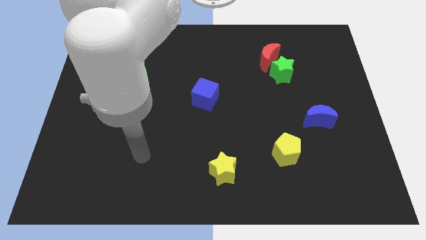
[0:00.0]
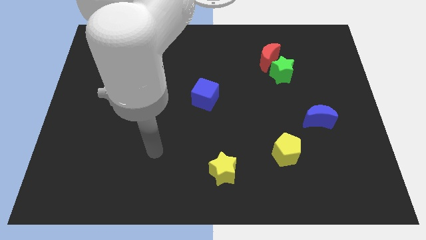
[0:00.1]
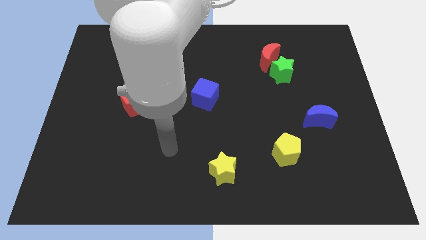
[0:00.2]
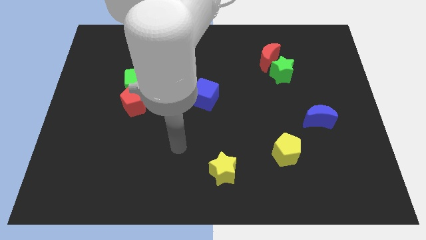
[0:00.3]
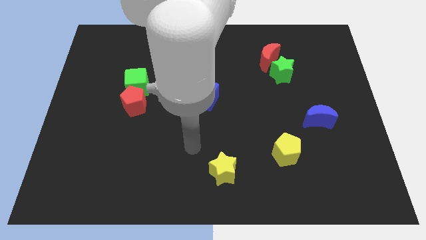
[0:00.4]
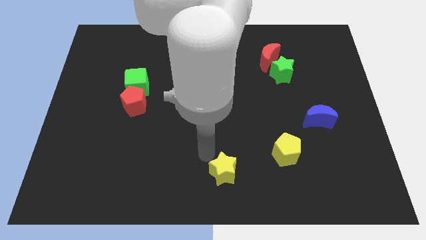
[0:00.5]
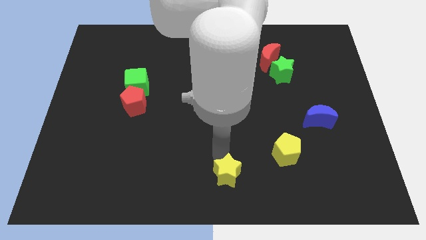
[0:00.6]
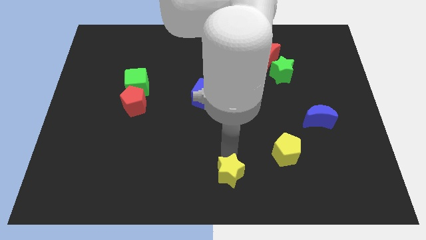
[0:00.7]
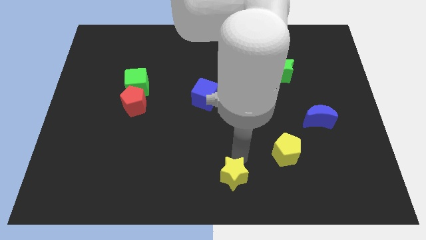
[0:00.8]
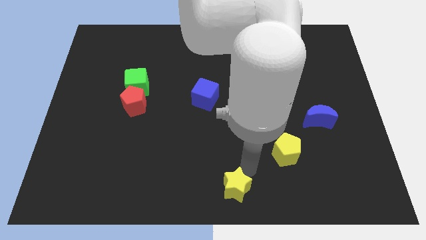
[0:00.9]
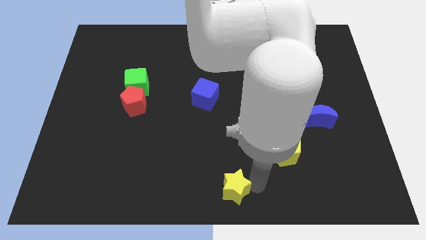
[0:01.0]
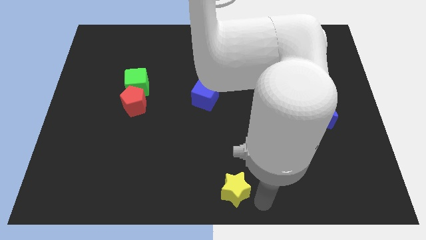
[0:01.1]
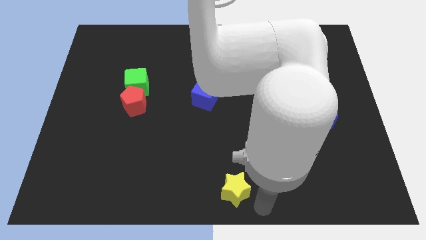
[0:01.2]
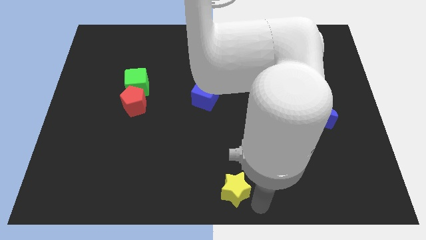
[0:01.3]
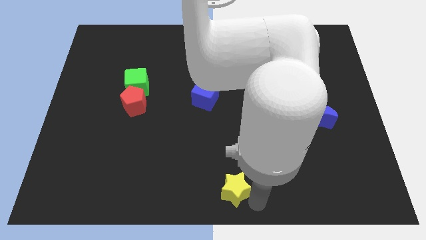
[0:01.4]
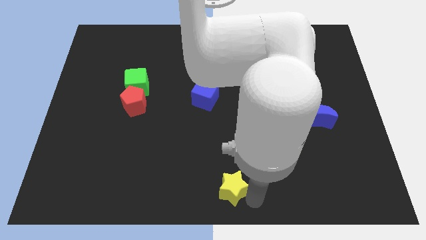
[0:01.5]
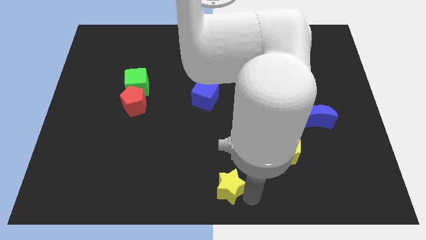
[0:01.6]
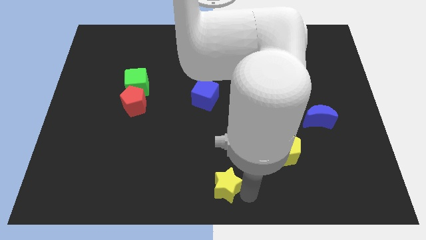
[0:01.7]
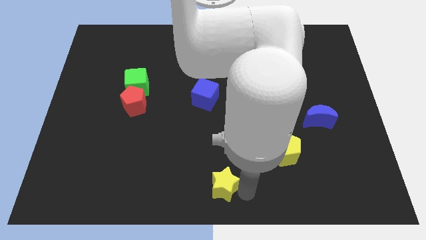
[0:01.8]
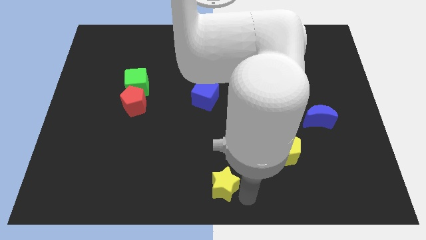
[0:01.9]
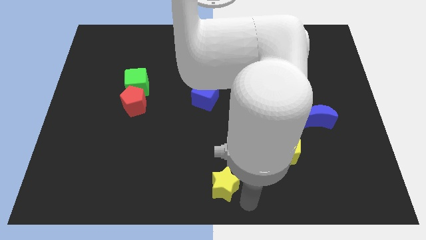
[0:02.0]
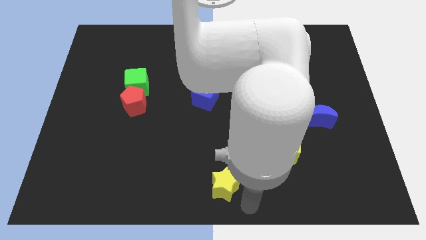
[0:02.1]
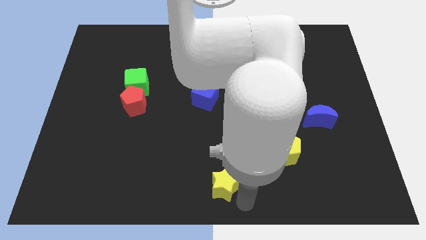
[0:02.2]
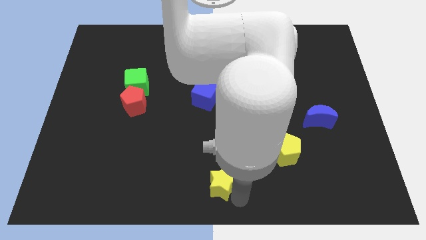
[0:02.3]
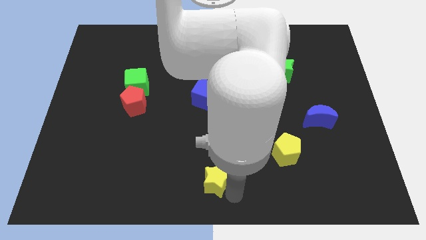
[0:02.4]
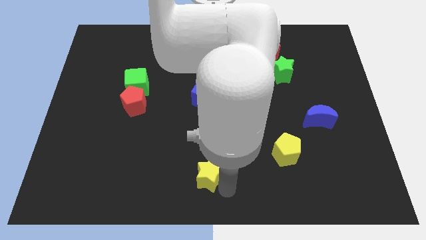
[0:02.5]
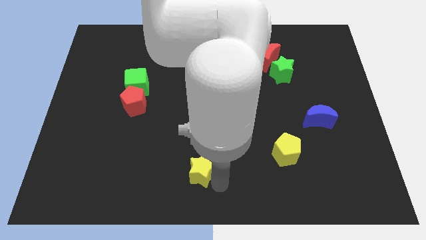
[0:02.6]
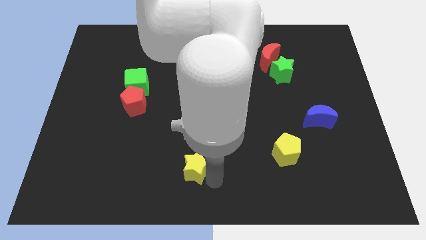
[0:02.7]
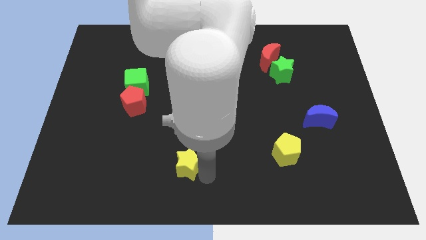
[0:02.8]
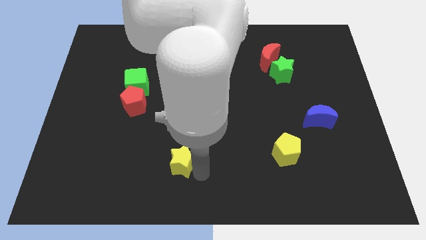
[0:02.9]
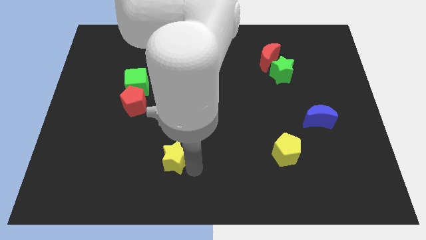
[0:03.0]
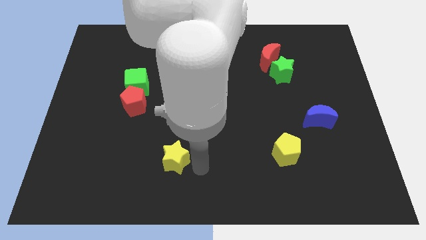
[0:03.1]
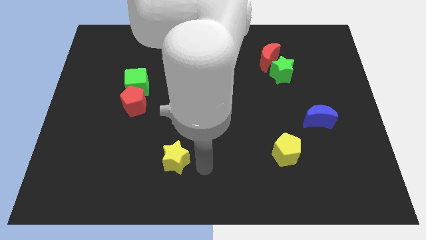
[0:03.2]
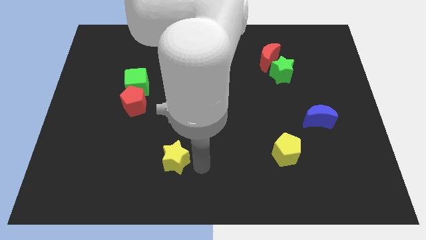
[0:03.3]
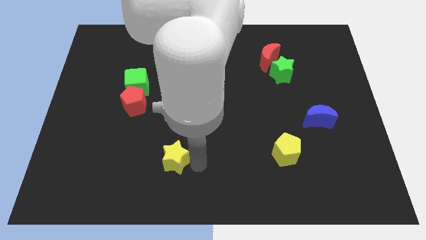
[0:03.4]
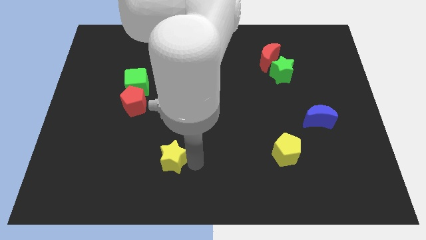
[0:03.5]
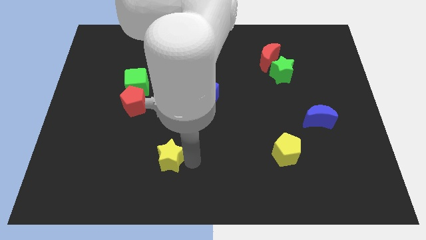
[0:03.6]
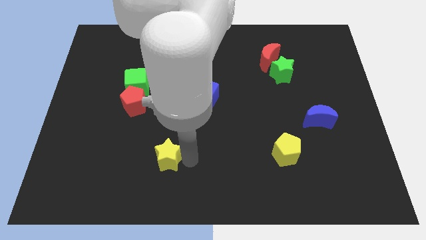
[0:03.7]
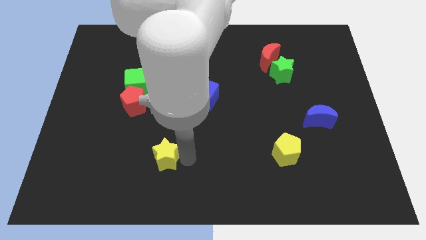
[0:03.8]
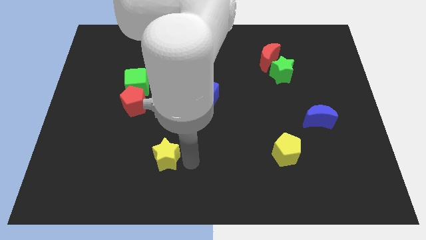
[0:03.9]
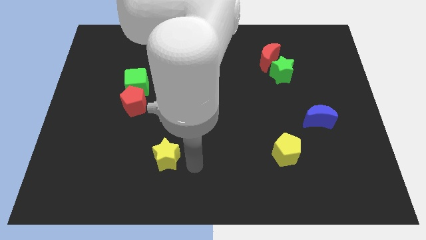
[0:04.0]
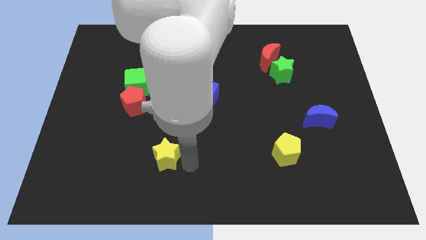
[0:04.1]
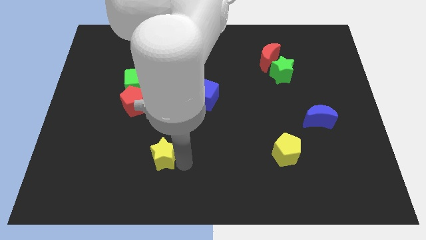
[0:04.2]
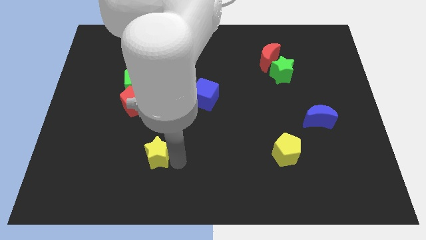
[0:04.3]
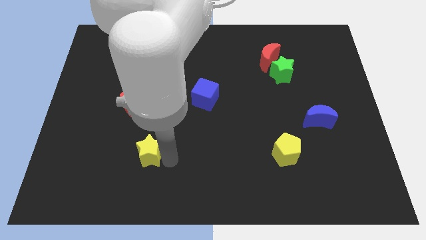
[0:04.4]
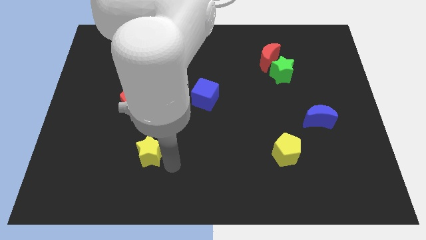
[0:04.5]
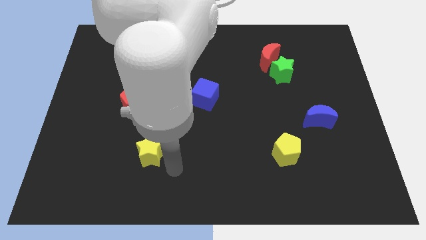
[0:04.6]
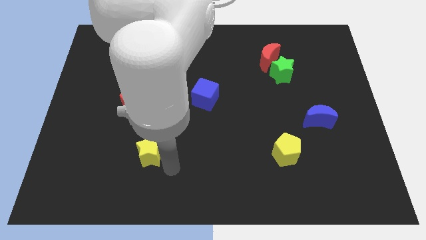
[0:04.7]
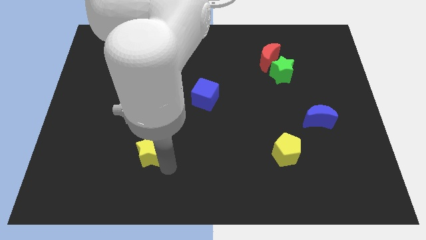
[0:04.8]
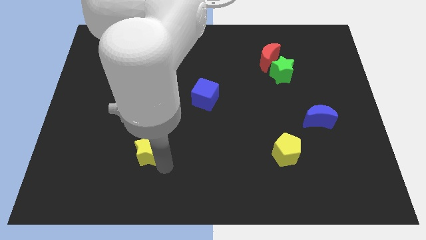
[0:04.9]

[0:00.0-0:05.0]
move the yellow star below the red pentagon

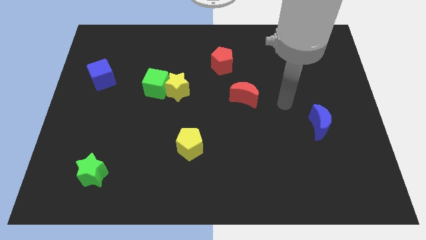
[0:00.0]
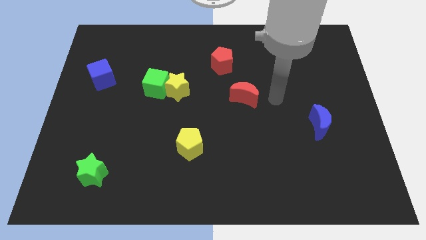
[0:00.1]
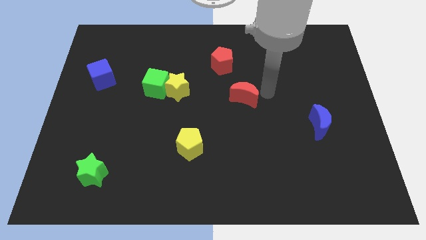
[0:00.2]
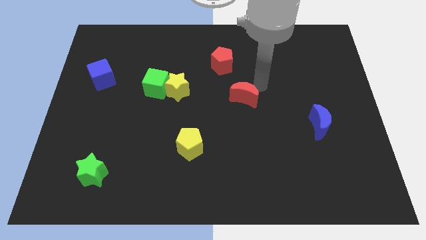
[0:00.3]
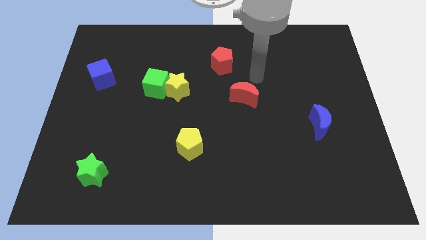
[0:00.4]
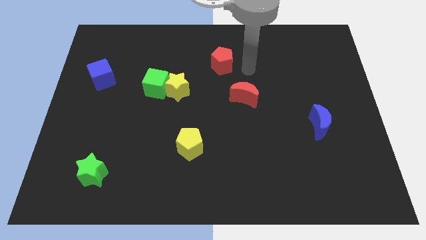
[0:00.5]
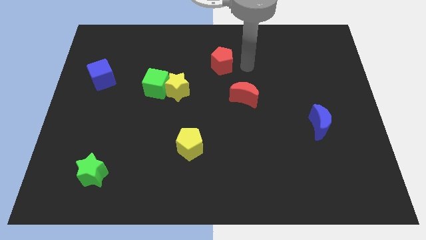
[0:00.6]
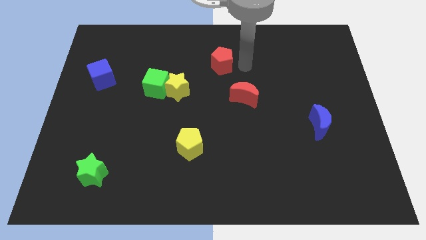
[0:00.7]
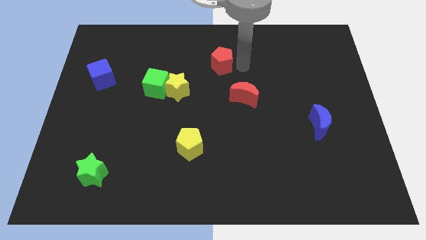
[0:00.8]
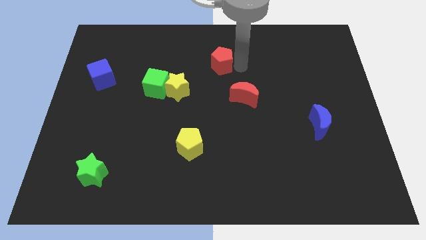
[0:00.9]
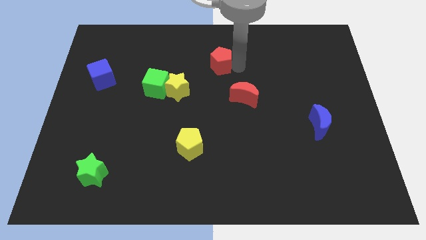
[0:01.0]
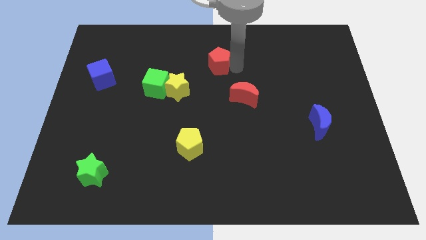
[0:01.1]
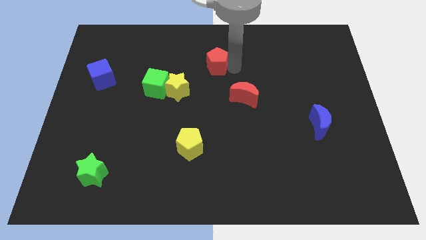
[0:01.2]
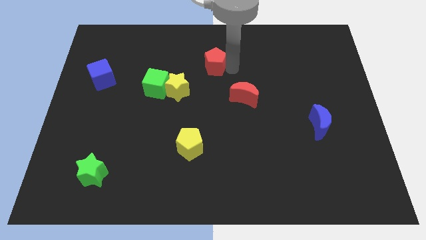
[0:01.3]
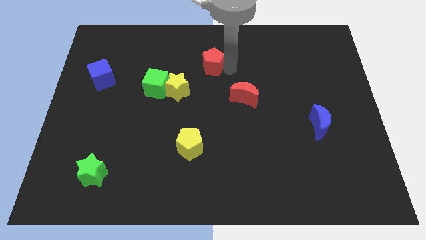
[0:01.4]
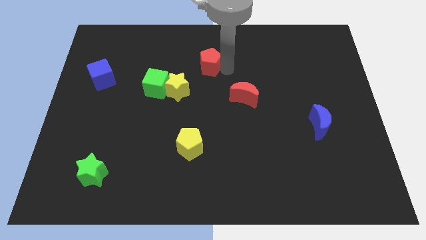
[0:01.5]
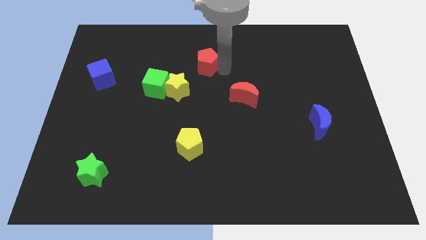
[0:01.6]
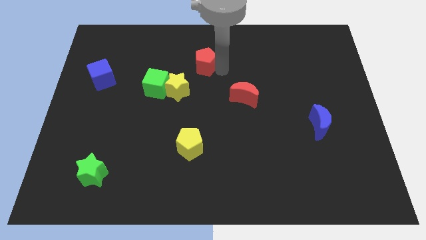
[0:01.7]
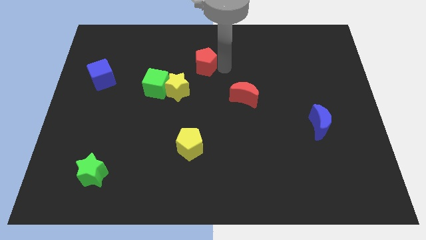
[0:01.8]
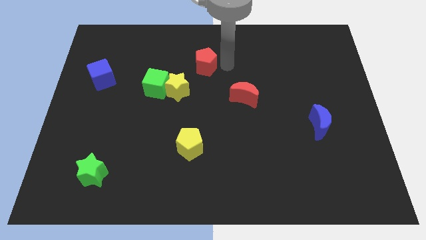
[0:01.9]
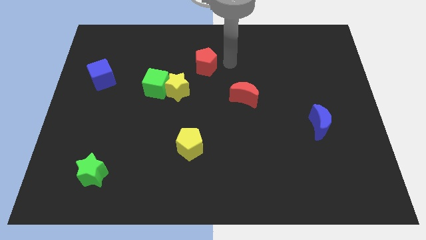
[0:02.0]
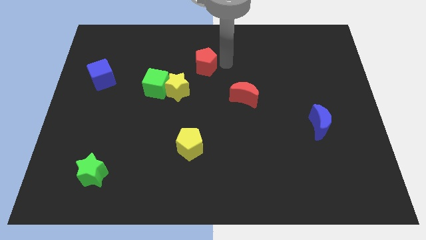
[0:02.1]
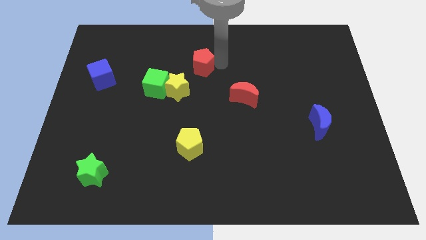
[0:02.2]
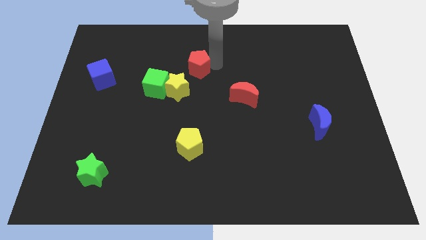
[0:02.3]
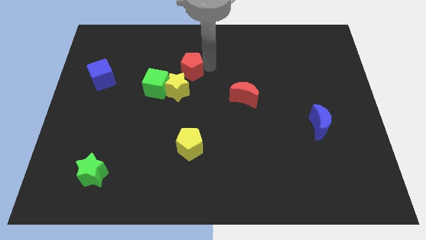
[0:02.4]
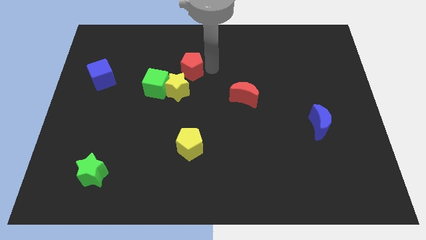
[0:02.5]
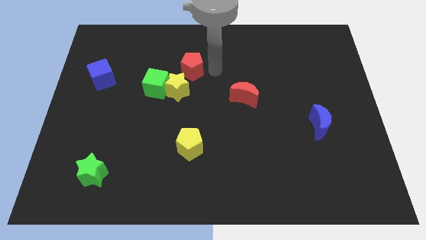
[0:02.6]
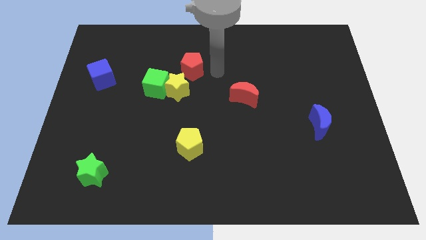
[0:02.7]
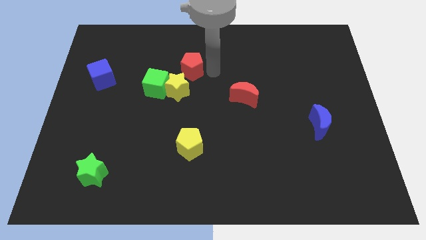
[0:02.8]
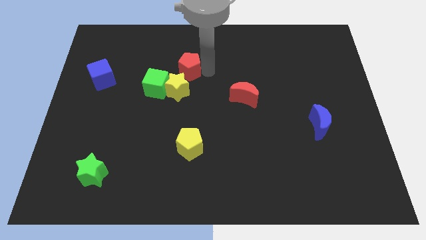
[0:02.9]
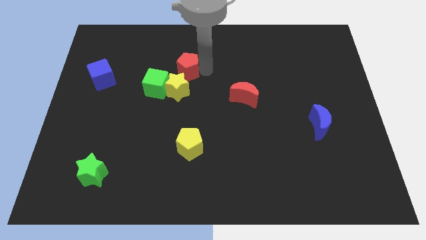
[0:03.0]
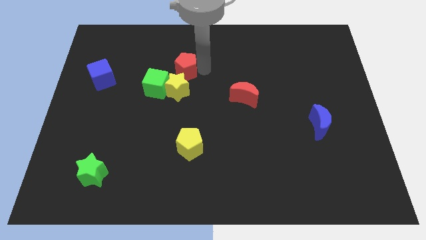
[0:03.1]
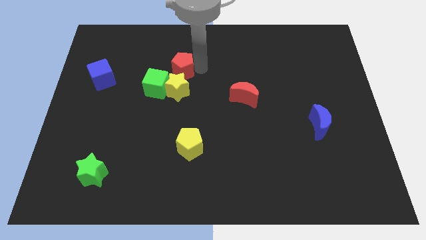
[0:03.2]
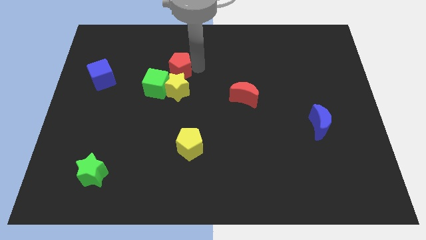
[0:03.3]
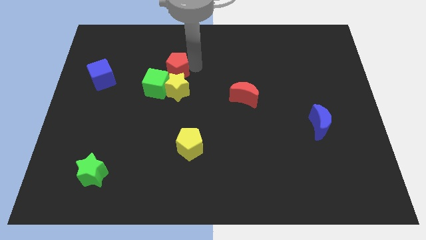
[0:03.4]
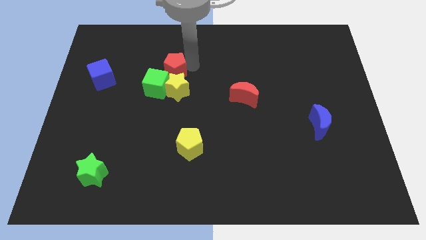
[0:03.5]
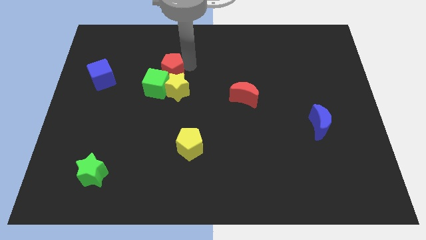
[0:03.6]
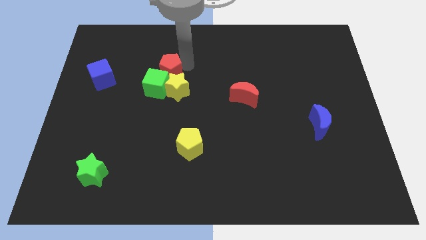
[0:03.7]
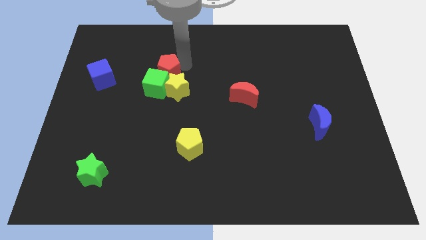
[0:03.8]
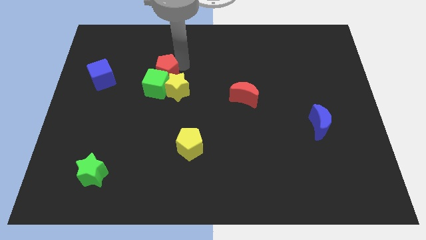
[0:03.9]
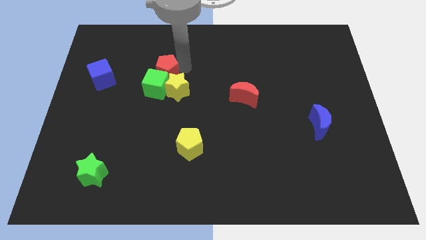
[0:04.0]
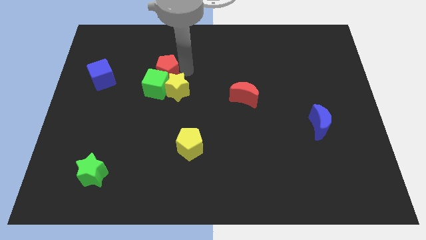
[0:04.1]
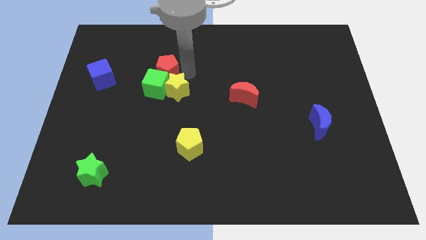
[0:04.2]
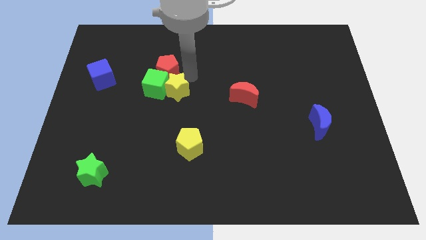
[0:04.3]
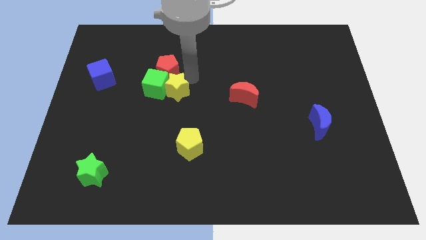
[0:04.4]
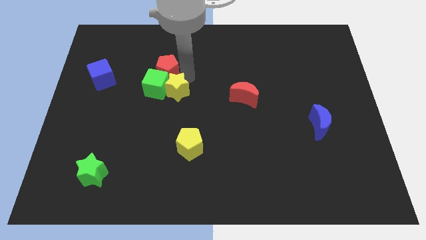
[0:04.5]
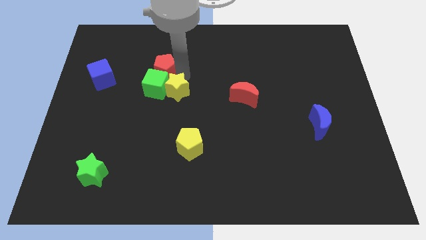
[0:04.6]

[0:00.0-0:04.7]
slide the red pentagon diagonally up and to the left of the green cube
